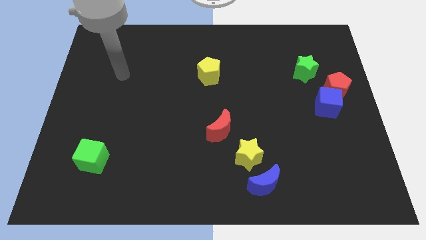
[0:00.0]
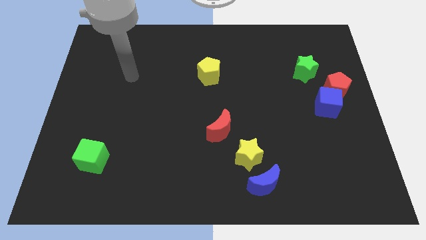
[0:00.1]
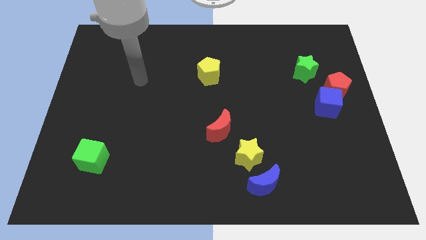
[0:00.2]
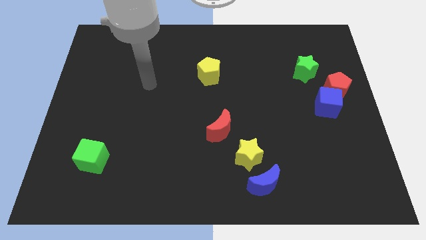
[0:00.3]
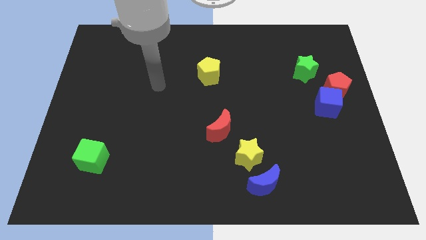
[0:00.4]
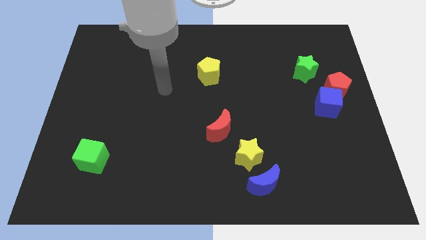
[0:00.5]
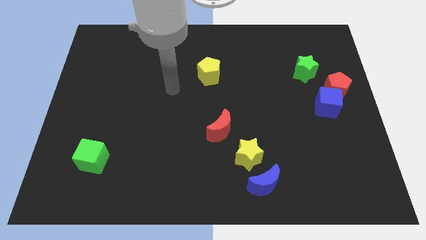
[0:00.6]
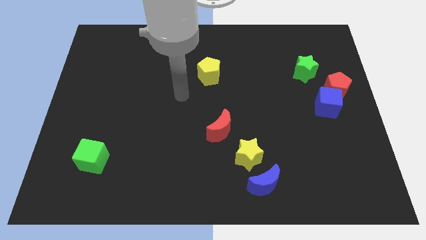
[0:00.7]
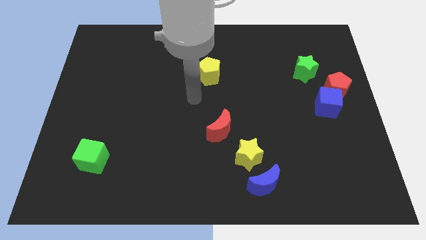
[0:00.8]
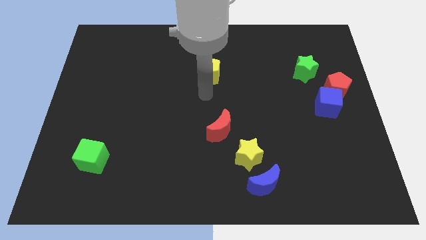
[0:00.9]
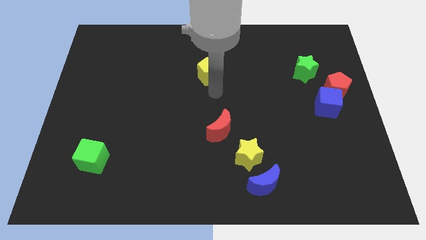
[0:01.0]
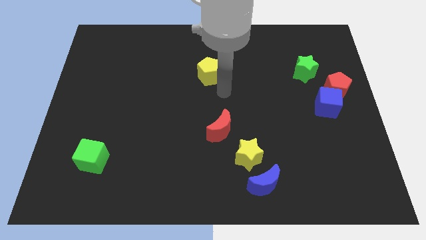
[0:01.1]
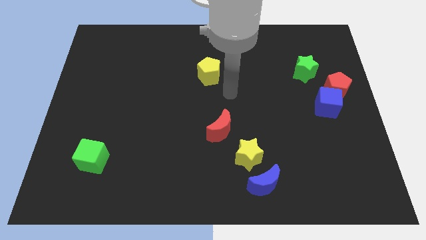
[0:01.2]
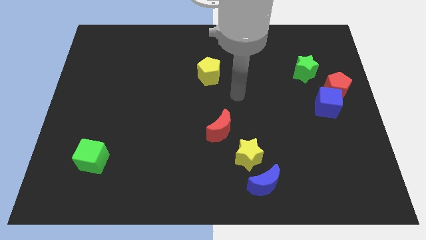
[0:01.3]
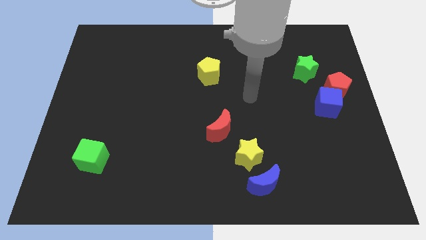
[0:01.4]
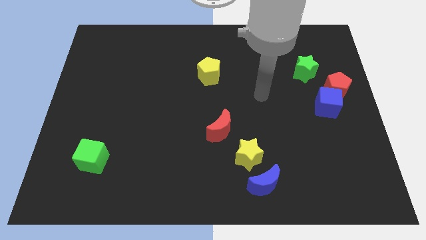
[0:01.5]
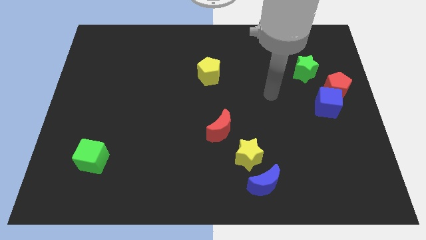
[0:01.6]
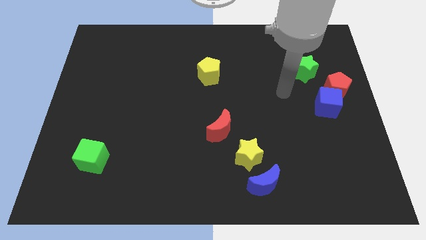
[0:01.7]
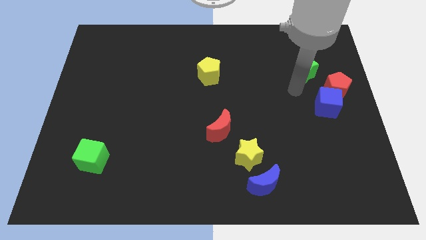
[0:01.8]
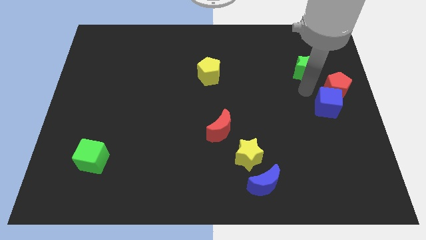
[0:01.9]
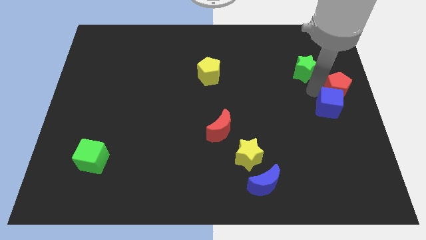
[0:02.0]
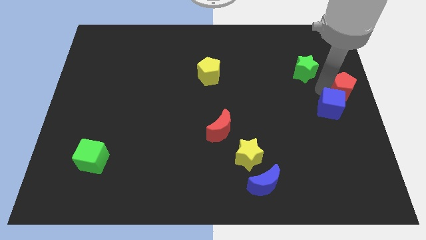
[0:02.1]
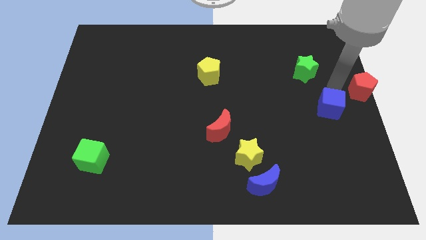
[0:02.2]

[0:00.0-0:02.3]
separate the blue cube from the red pentagon

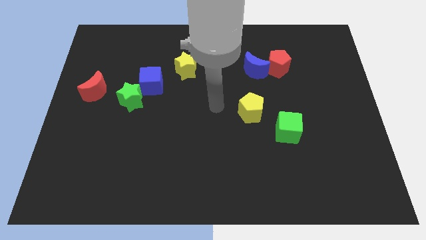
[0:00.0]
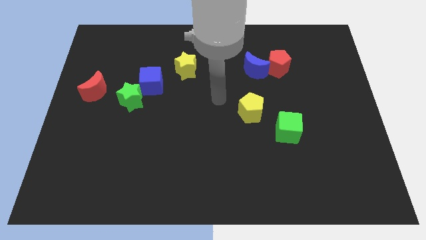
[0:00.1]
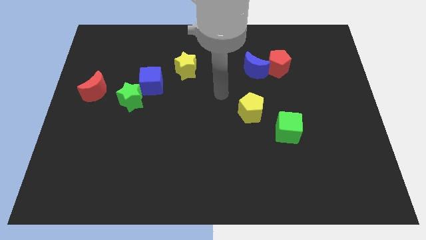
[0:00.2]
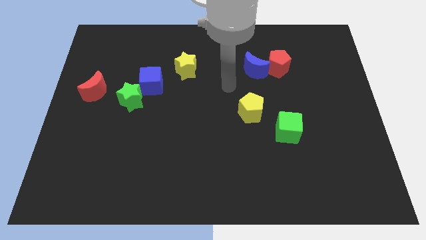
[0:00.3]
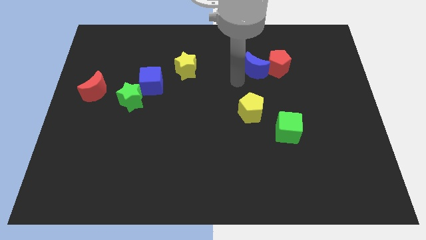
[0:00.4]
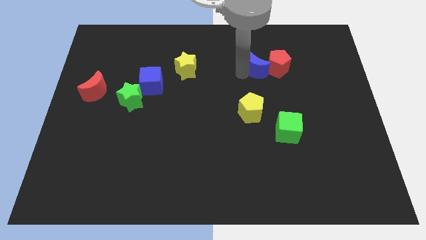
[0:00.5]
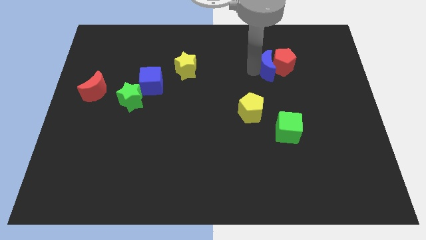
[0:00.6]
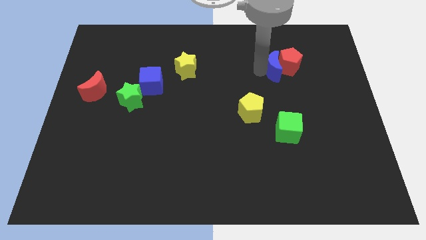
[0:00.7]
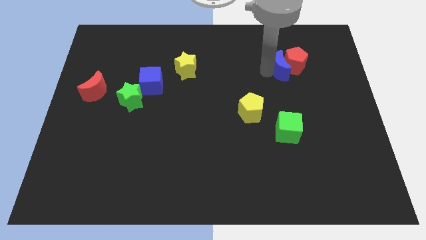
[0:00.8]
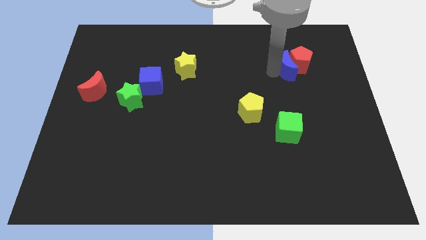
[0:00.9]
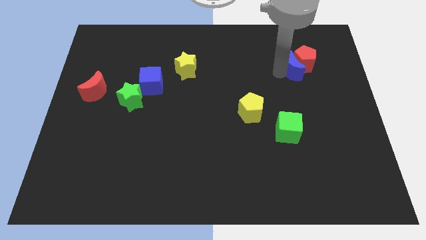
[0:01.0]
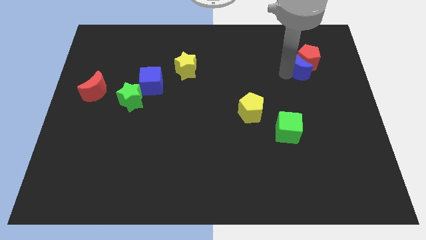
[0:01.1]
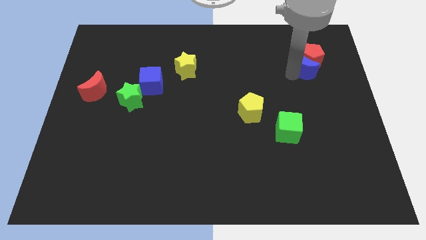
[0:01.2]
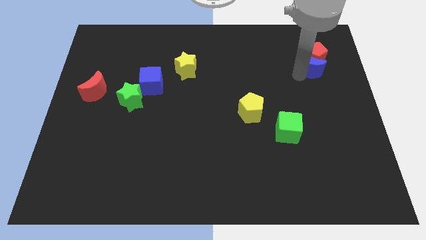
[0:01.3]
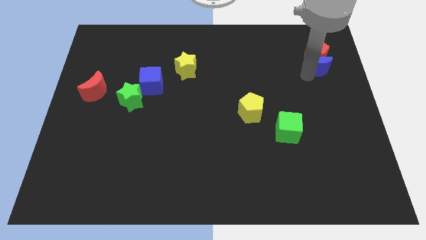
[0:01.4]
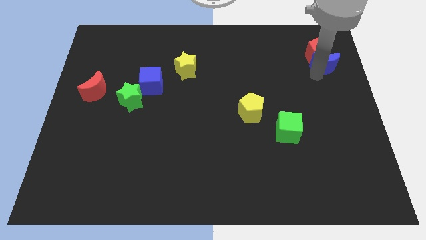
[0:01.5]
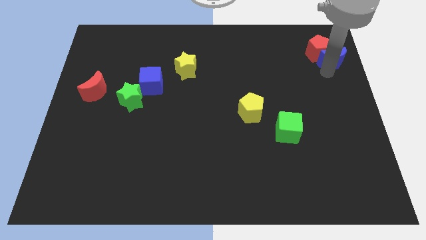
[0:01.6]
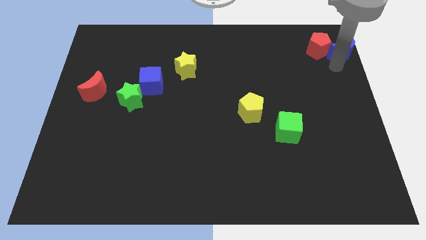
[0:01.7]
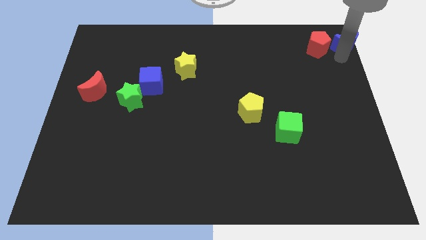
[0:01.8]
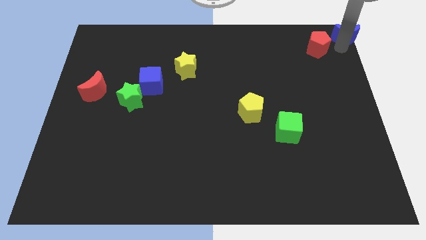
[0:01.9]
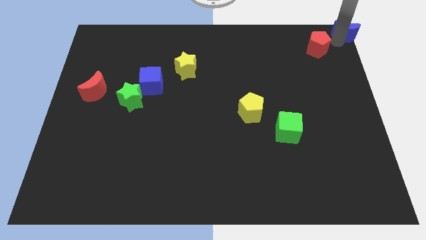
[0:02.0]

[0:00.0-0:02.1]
pull the red pentagon apart from the blue moon

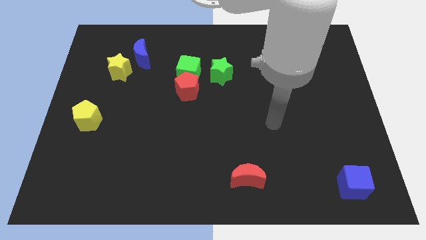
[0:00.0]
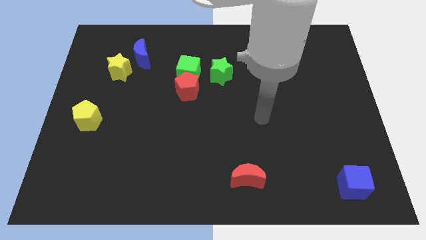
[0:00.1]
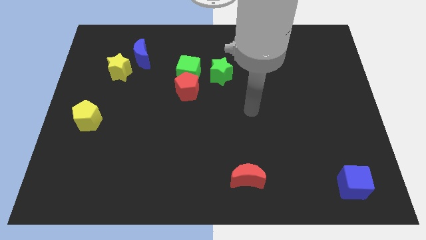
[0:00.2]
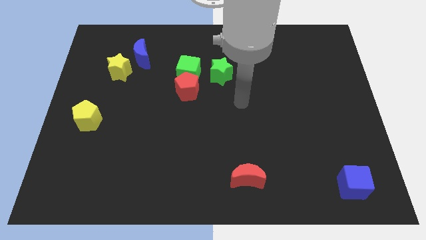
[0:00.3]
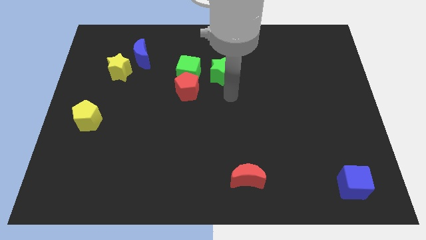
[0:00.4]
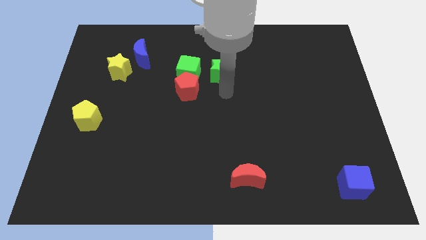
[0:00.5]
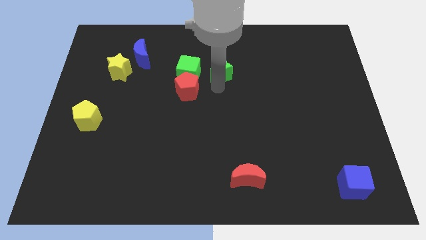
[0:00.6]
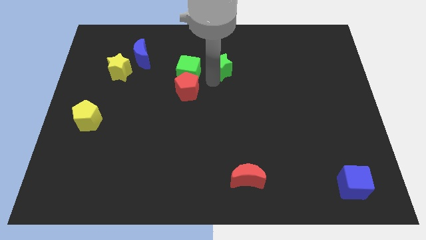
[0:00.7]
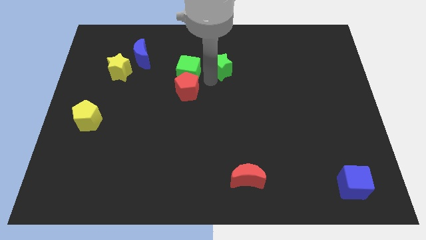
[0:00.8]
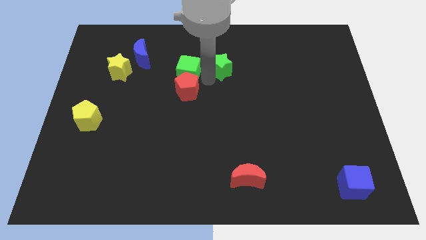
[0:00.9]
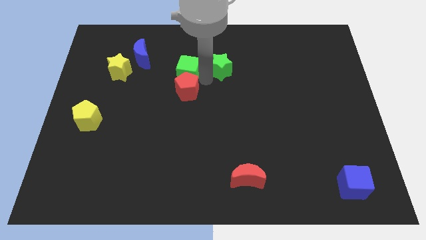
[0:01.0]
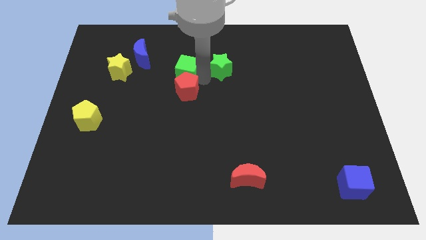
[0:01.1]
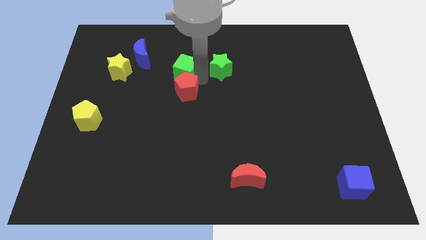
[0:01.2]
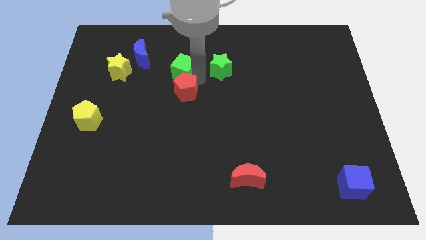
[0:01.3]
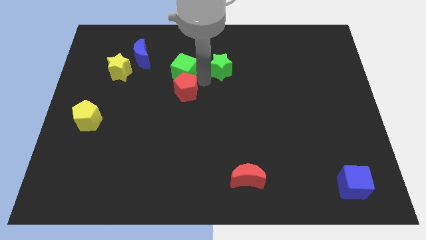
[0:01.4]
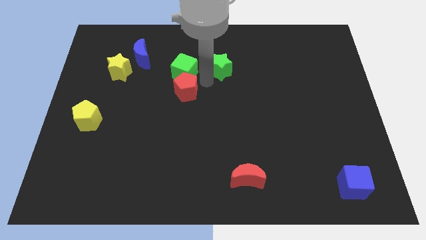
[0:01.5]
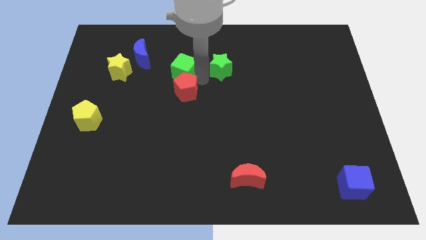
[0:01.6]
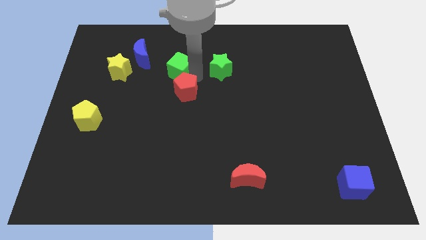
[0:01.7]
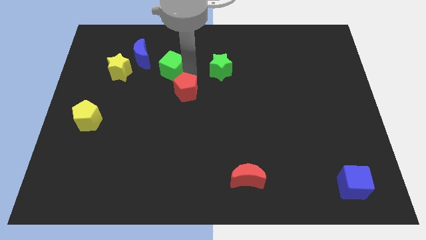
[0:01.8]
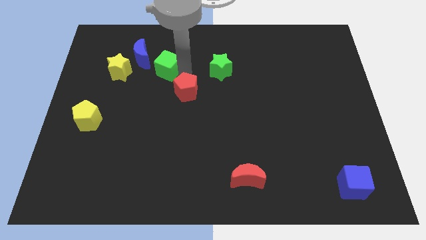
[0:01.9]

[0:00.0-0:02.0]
move the green cube away from the red pentagon and green star

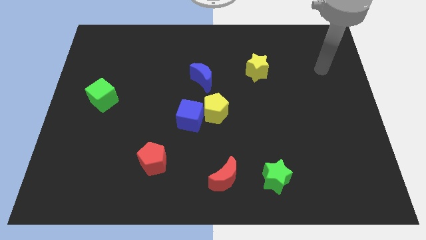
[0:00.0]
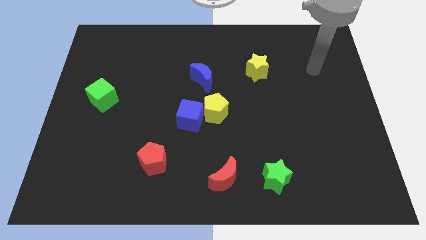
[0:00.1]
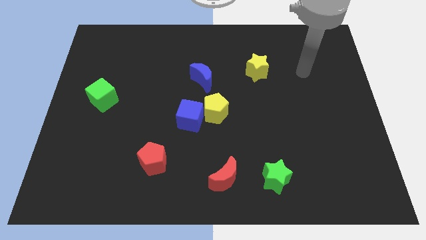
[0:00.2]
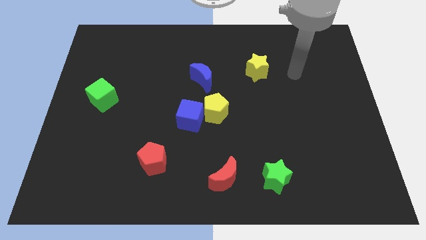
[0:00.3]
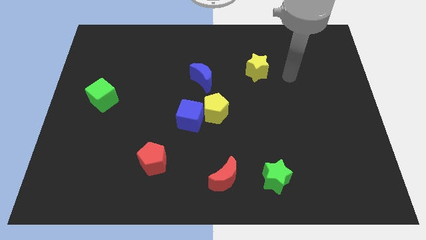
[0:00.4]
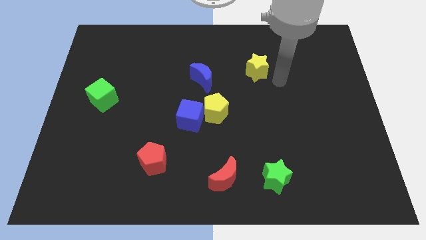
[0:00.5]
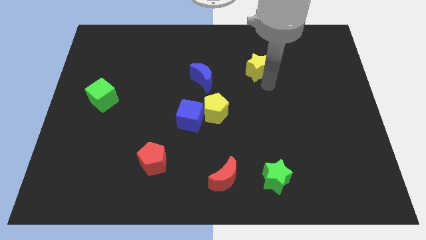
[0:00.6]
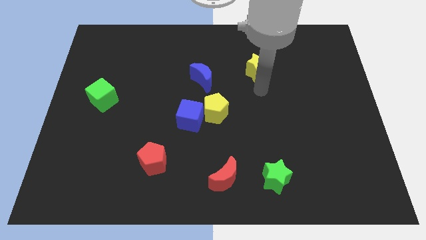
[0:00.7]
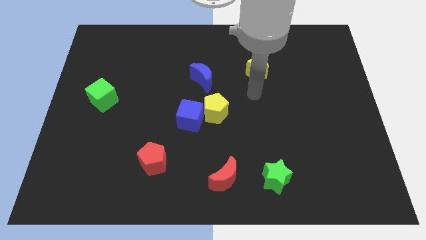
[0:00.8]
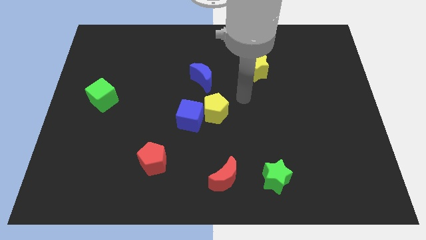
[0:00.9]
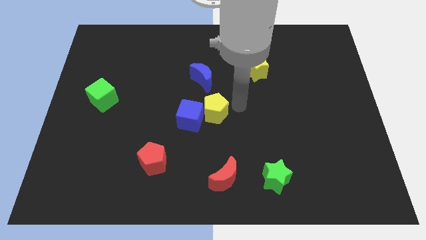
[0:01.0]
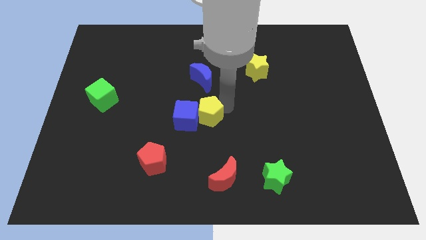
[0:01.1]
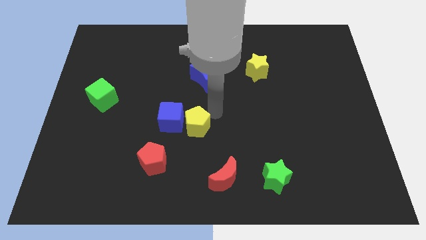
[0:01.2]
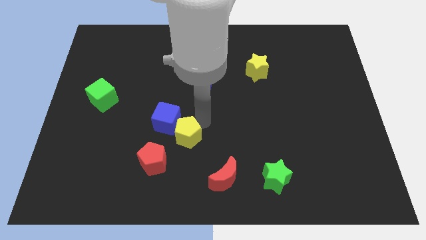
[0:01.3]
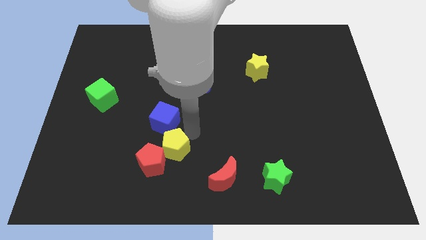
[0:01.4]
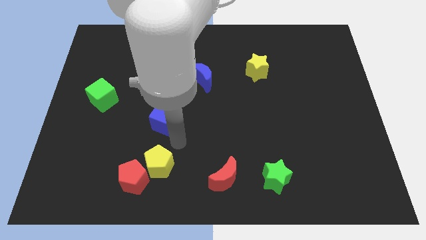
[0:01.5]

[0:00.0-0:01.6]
move the blue cube away from the yellow pentagon

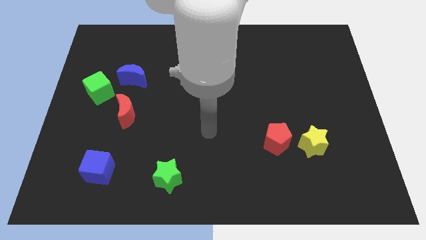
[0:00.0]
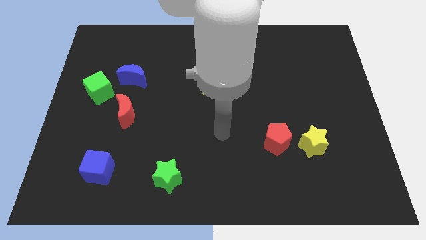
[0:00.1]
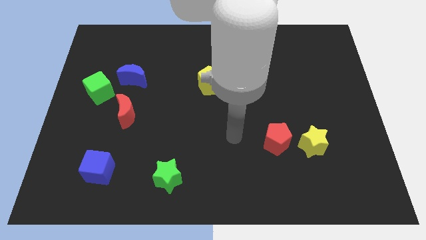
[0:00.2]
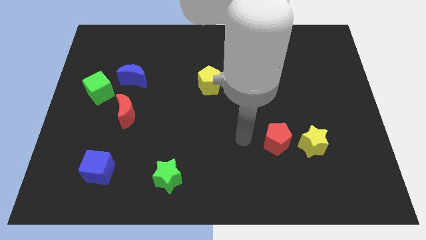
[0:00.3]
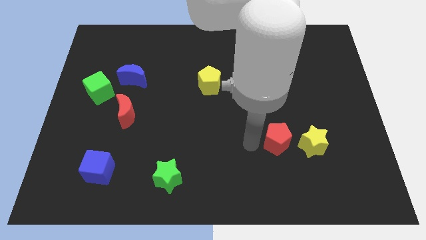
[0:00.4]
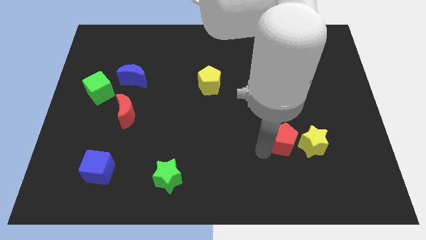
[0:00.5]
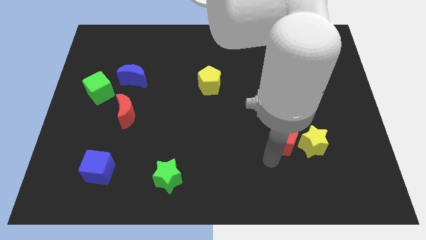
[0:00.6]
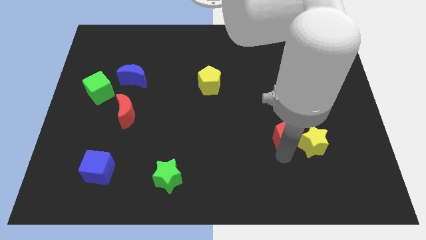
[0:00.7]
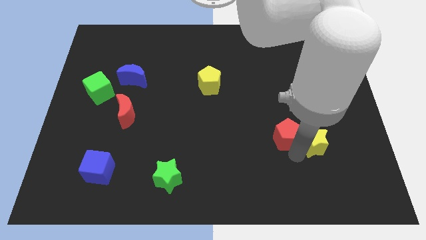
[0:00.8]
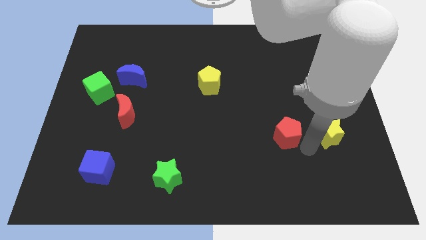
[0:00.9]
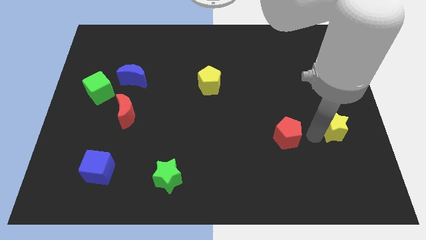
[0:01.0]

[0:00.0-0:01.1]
separate the red pentagon from the yellow star

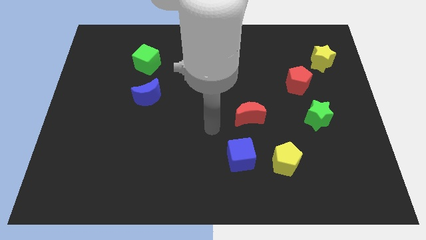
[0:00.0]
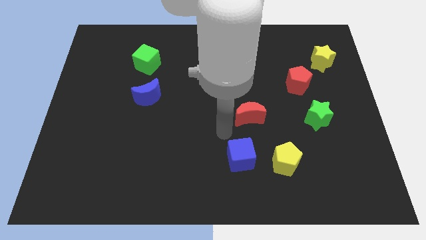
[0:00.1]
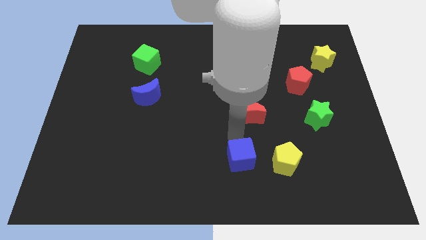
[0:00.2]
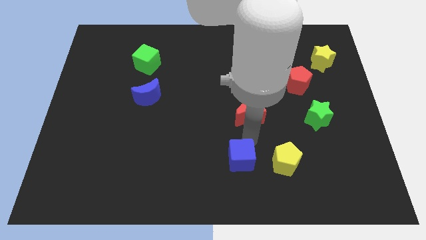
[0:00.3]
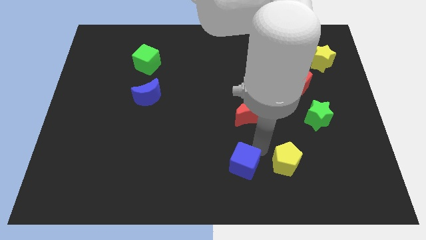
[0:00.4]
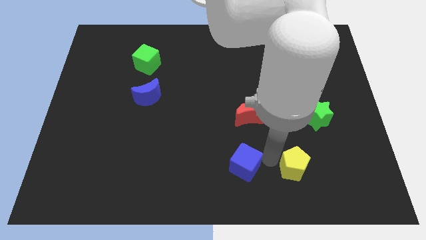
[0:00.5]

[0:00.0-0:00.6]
pull the blue cube apart from the yellow pentagon
